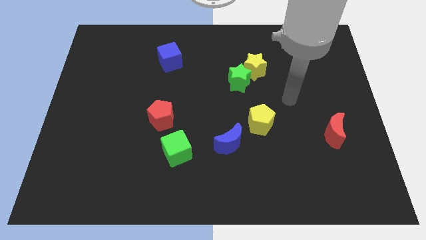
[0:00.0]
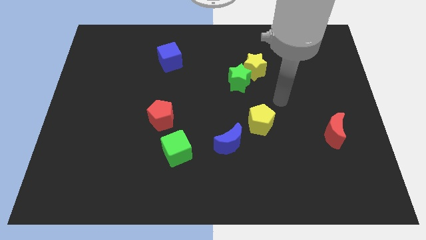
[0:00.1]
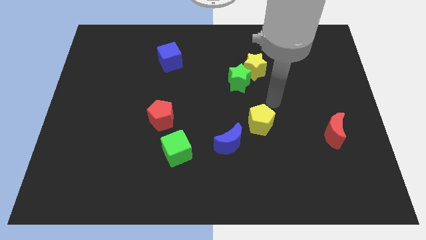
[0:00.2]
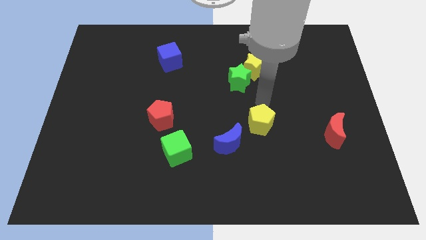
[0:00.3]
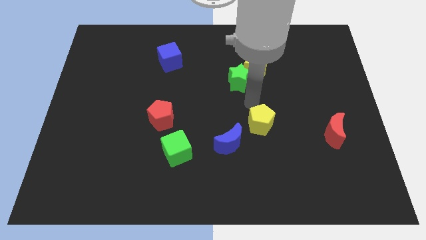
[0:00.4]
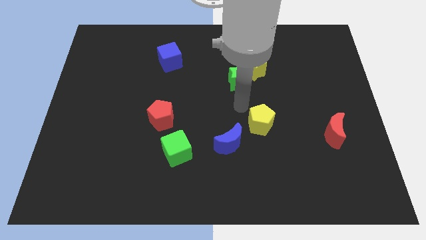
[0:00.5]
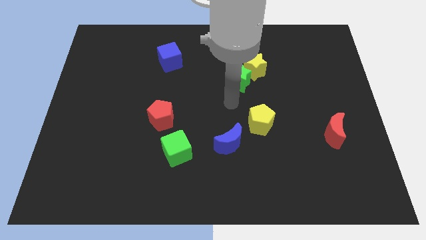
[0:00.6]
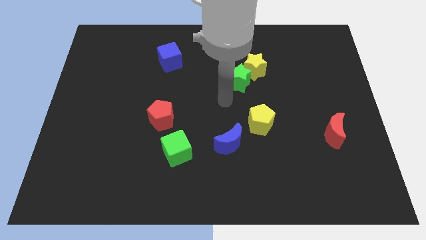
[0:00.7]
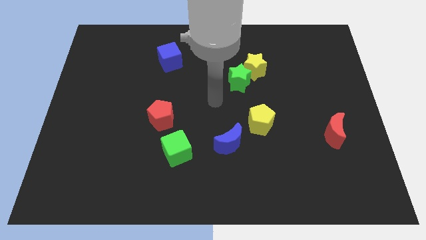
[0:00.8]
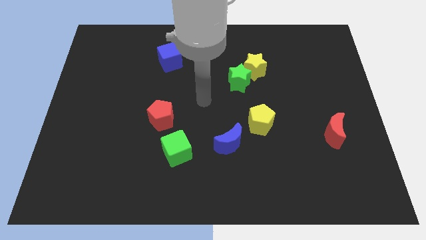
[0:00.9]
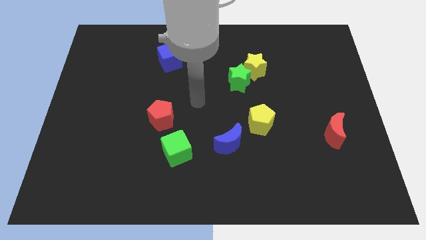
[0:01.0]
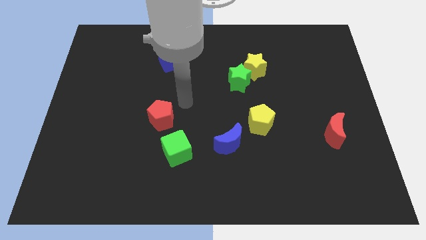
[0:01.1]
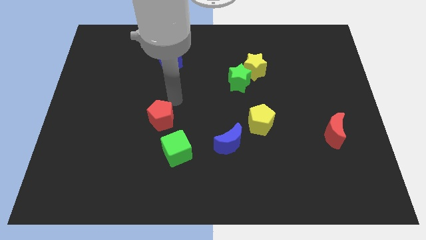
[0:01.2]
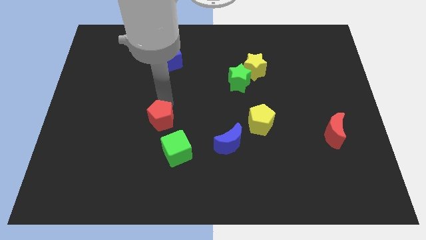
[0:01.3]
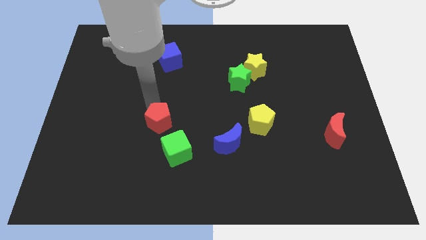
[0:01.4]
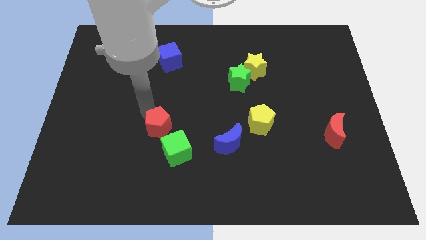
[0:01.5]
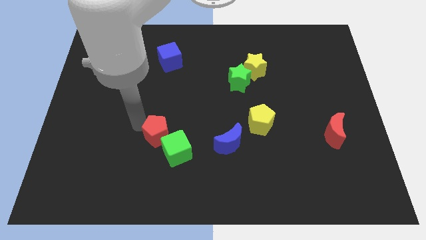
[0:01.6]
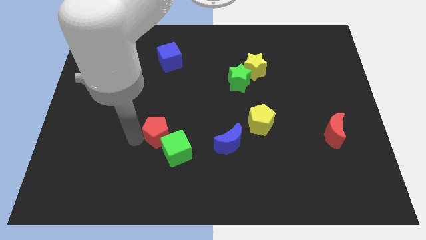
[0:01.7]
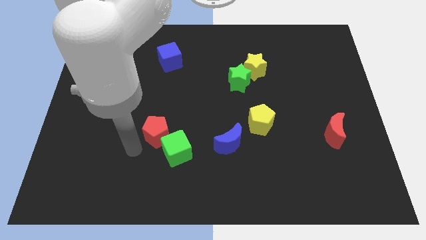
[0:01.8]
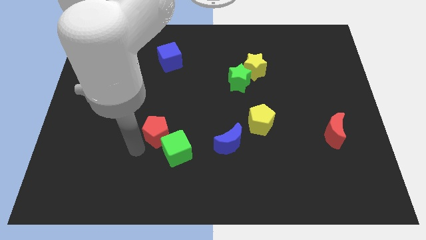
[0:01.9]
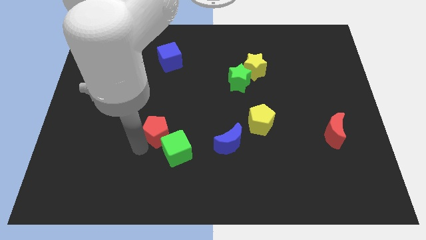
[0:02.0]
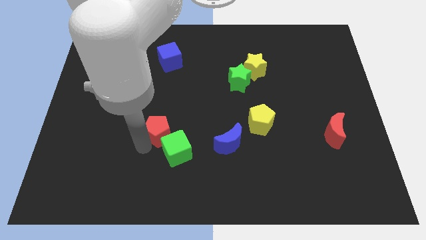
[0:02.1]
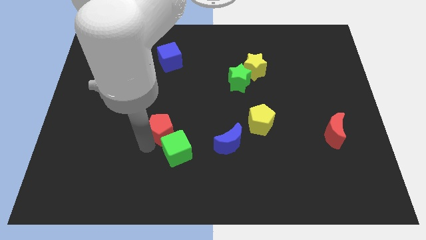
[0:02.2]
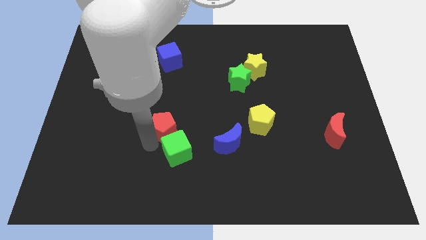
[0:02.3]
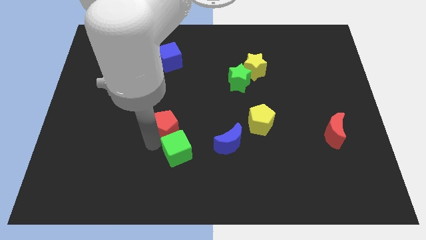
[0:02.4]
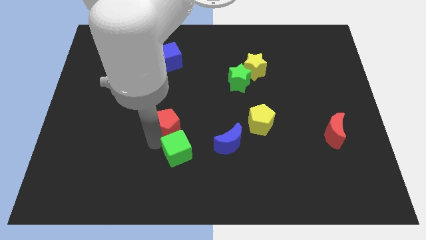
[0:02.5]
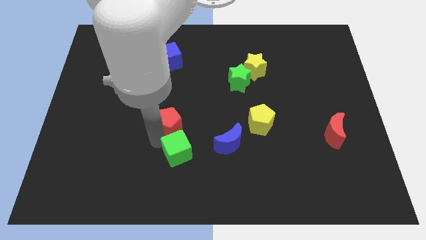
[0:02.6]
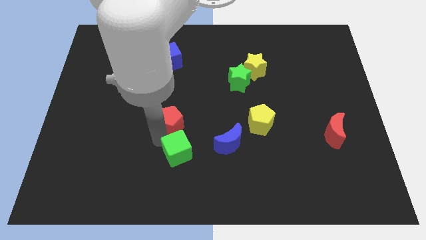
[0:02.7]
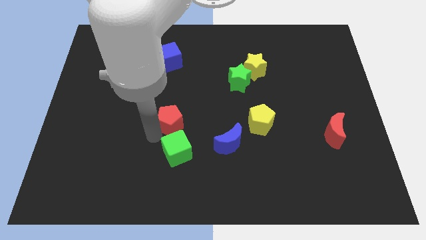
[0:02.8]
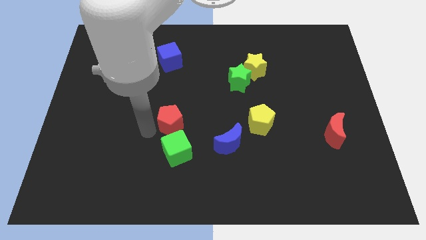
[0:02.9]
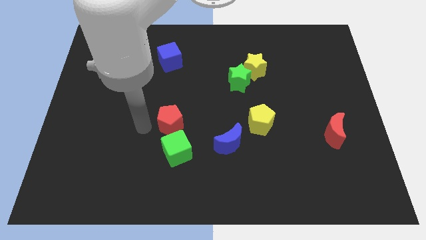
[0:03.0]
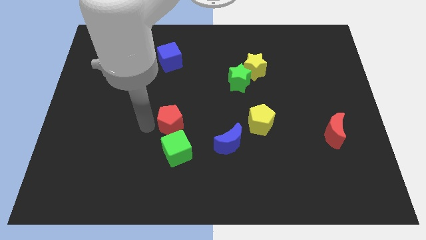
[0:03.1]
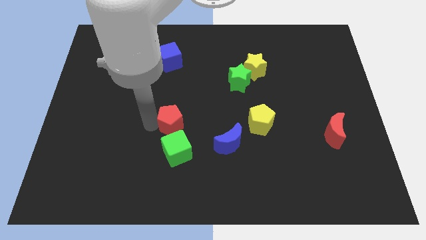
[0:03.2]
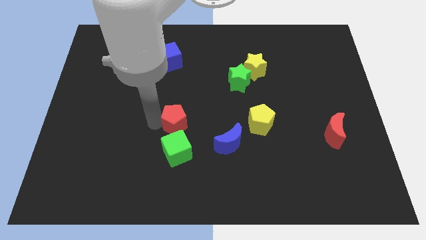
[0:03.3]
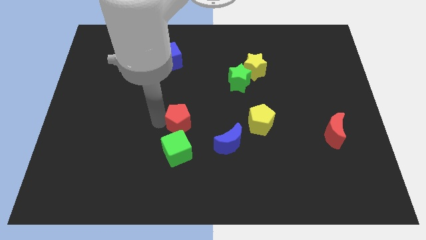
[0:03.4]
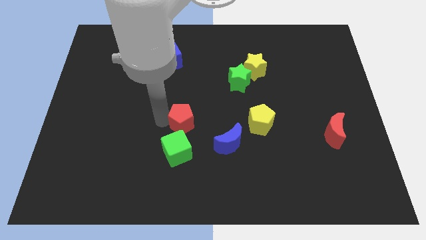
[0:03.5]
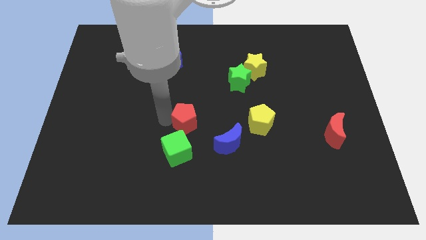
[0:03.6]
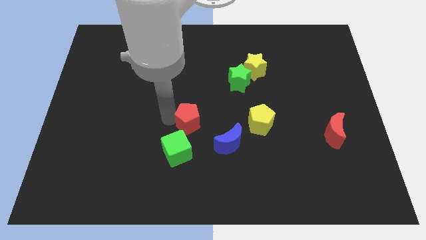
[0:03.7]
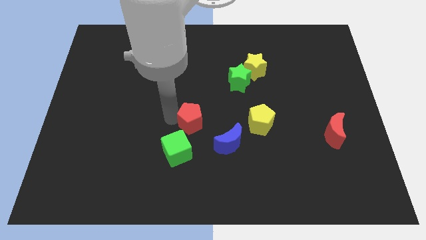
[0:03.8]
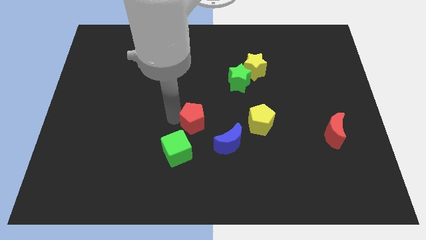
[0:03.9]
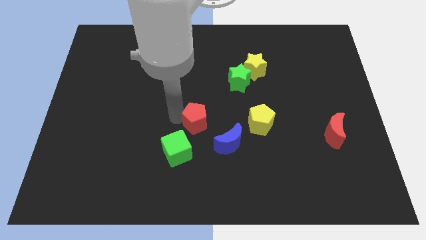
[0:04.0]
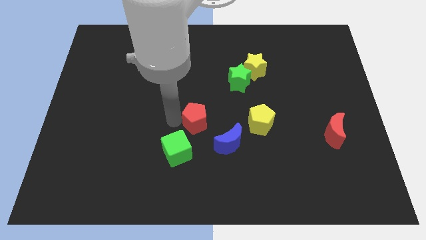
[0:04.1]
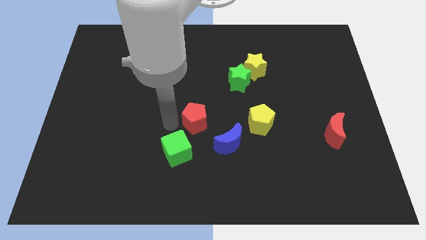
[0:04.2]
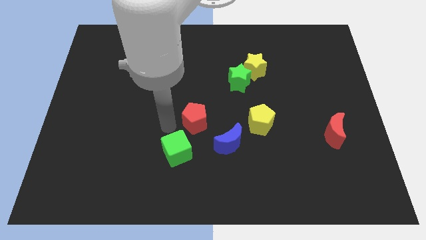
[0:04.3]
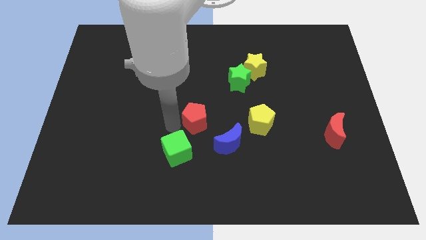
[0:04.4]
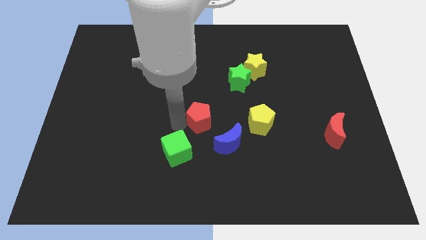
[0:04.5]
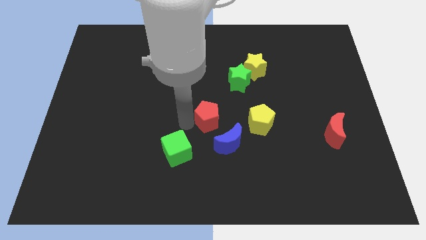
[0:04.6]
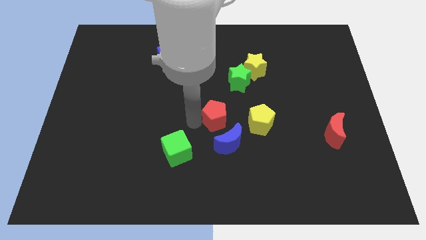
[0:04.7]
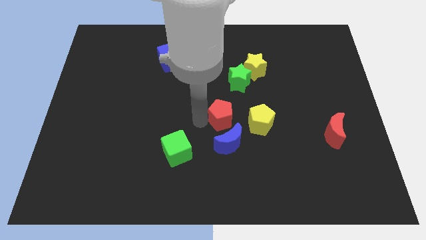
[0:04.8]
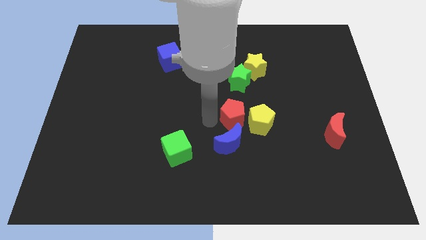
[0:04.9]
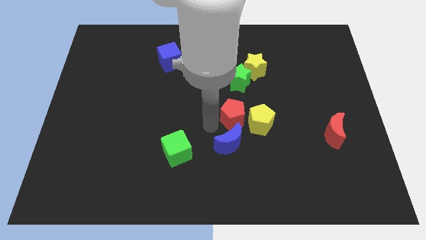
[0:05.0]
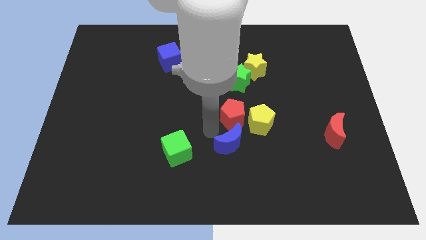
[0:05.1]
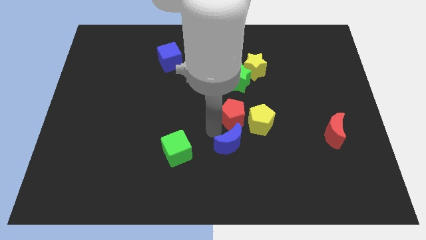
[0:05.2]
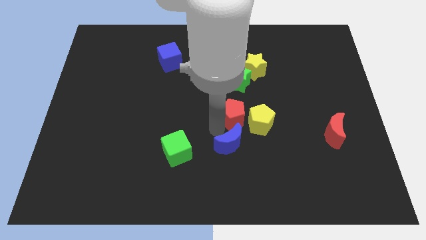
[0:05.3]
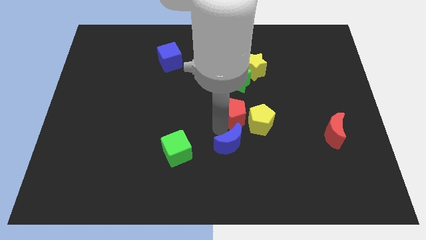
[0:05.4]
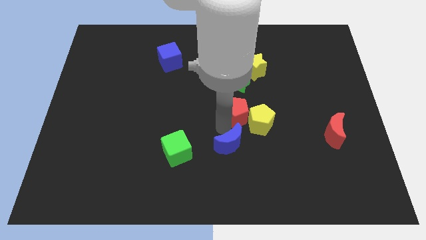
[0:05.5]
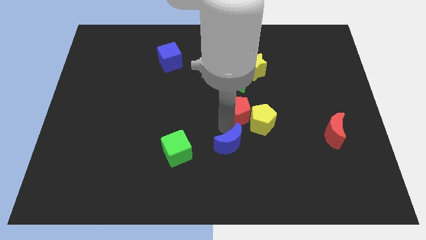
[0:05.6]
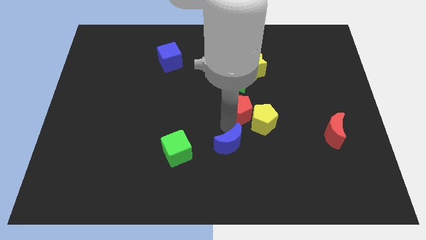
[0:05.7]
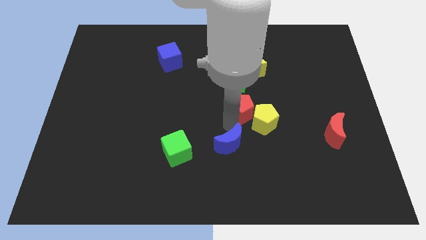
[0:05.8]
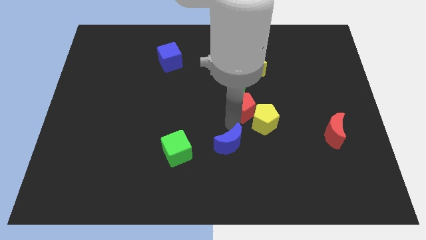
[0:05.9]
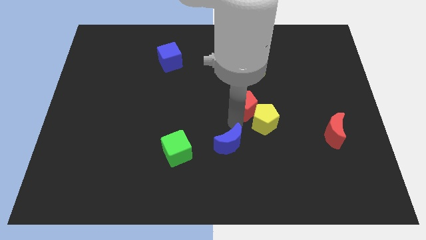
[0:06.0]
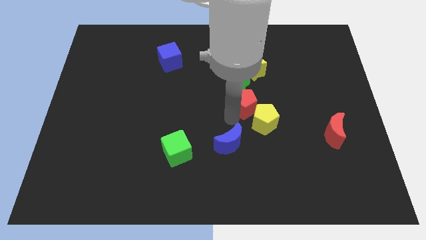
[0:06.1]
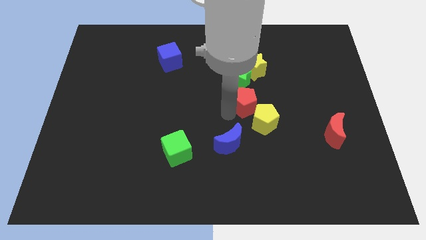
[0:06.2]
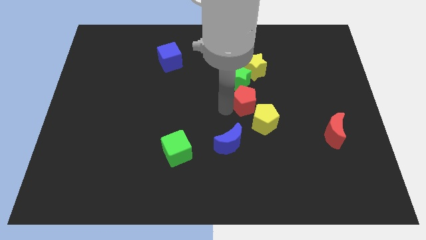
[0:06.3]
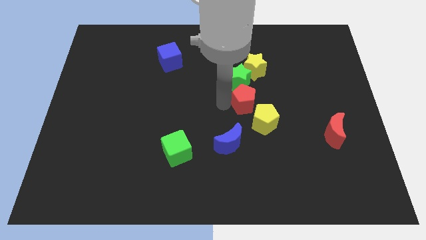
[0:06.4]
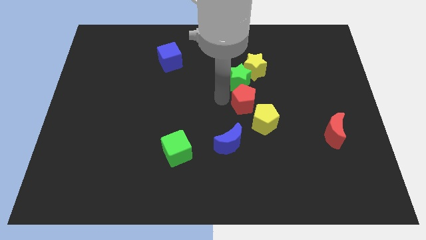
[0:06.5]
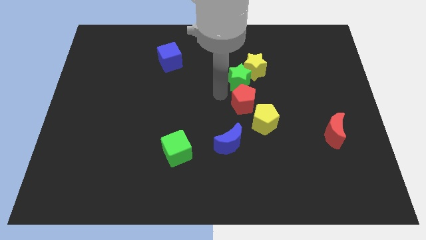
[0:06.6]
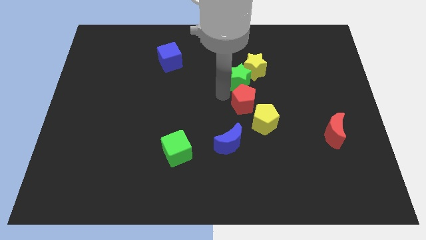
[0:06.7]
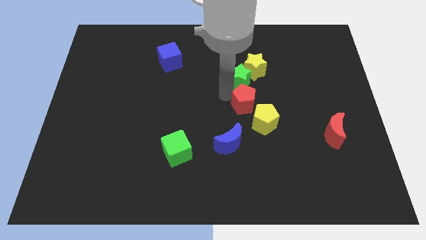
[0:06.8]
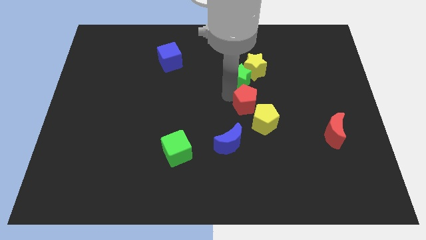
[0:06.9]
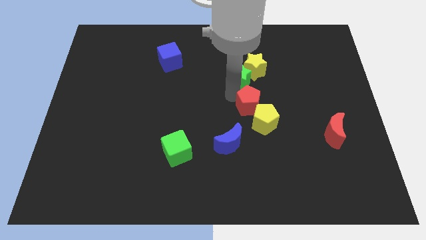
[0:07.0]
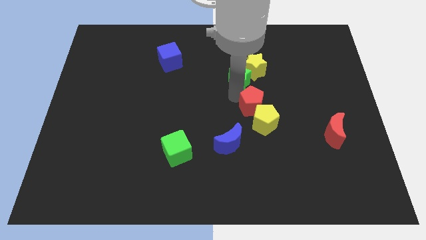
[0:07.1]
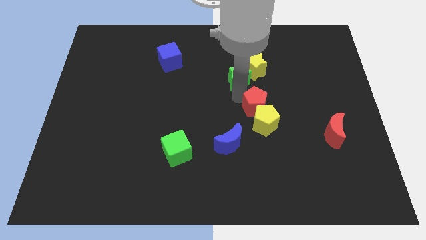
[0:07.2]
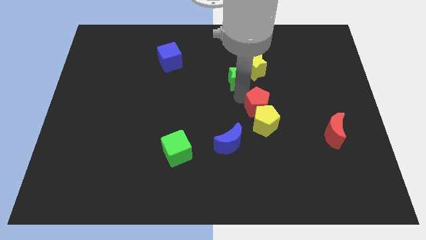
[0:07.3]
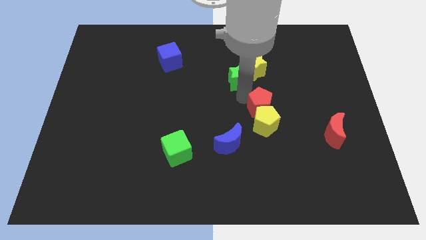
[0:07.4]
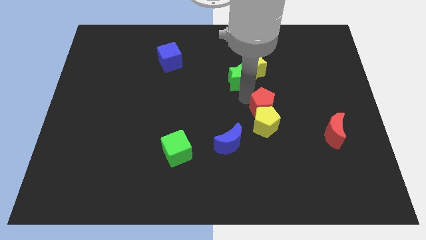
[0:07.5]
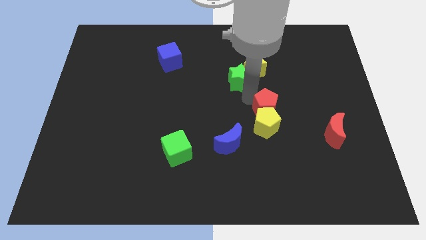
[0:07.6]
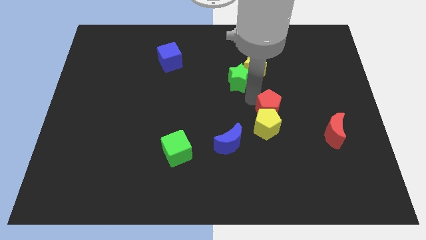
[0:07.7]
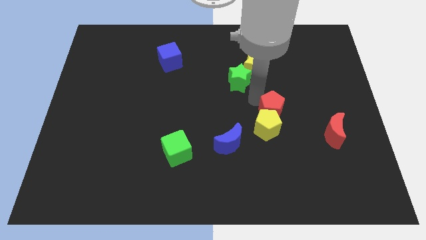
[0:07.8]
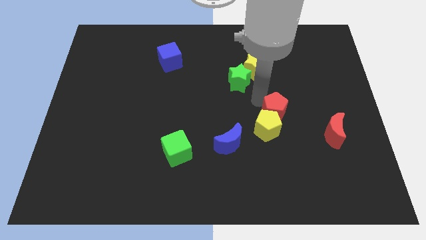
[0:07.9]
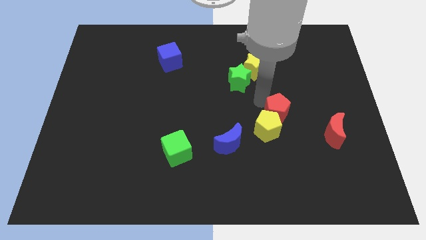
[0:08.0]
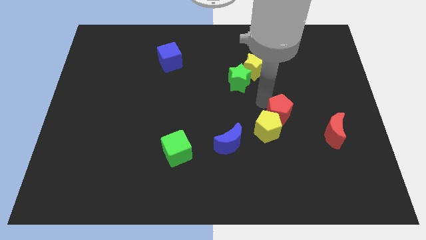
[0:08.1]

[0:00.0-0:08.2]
slide the red pentagon just right of the yellow pentagon
